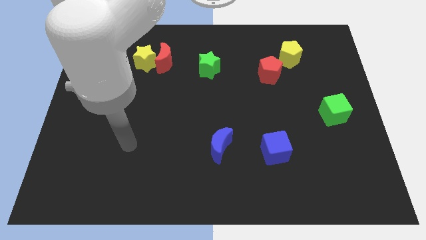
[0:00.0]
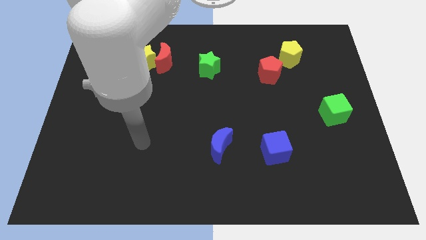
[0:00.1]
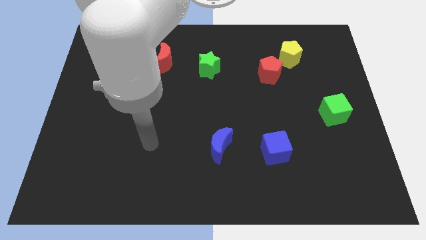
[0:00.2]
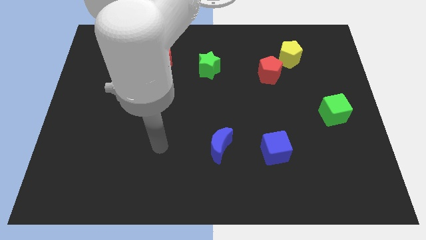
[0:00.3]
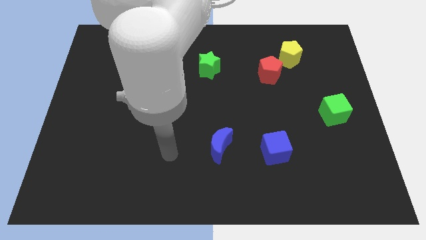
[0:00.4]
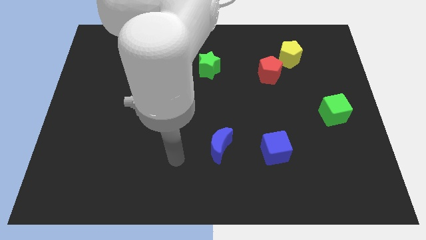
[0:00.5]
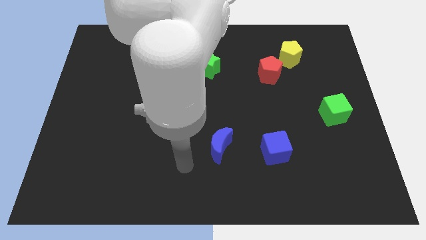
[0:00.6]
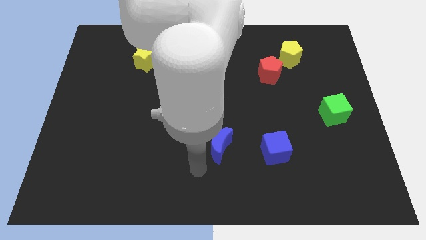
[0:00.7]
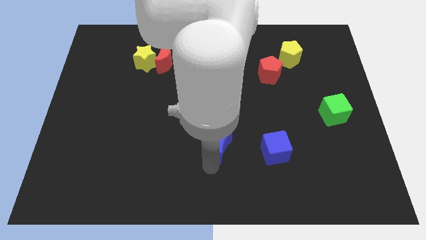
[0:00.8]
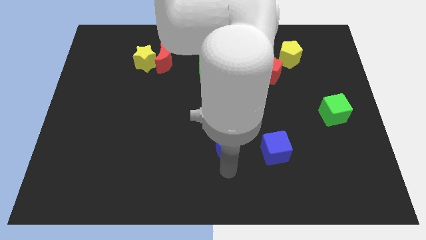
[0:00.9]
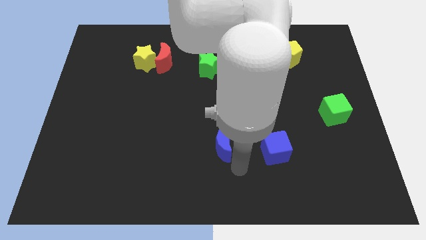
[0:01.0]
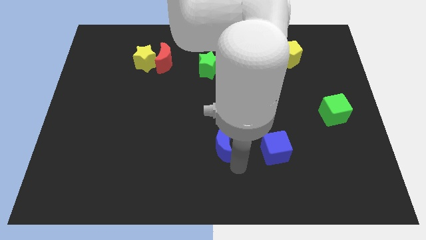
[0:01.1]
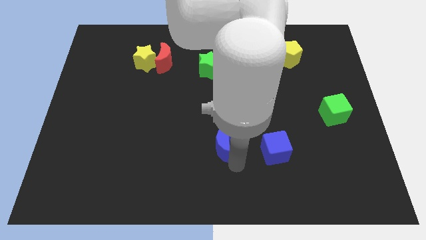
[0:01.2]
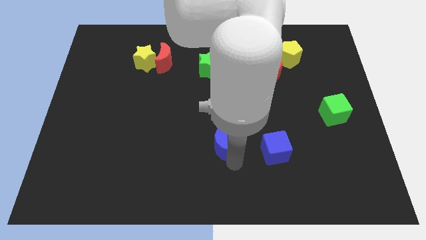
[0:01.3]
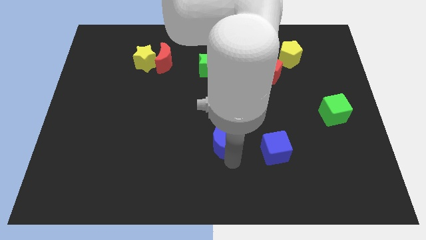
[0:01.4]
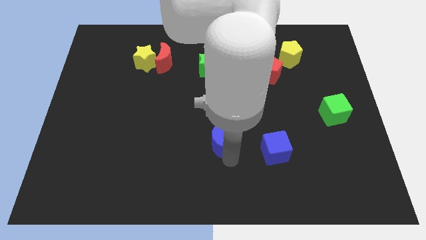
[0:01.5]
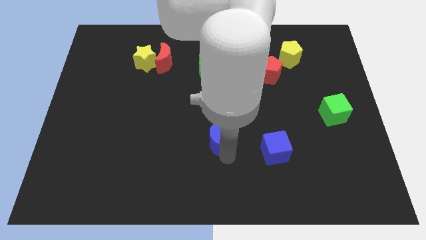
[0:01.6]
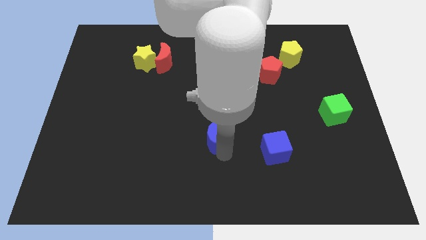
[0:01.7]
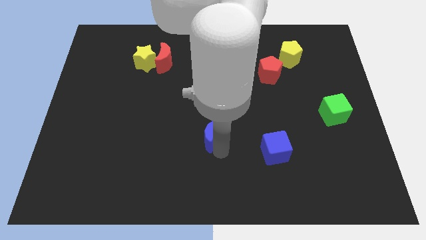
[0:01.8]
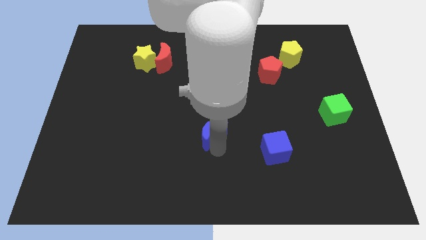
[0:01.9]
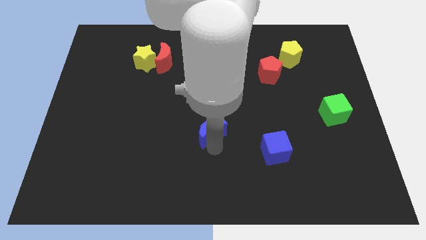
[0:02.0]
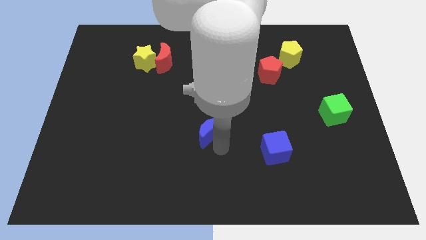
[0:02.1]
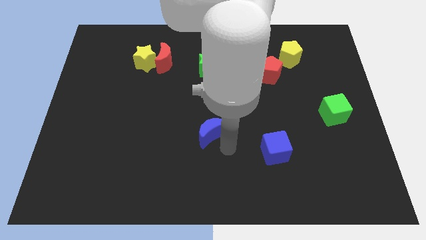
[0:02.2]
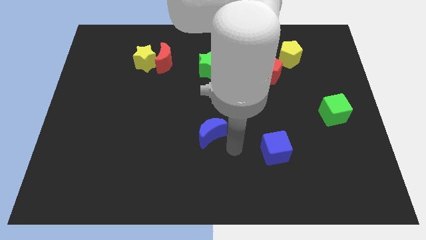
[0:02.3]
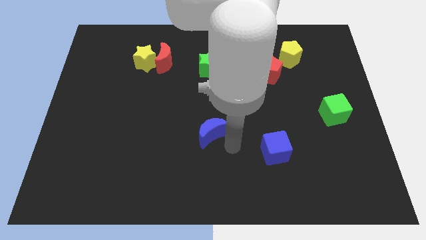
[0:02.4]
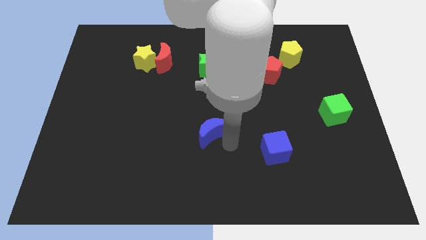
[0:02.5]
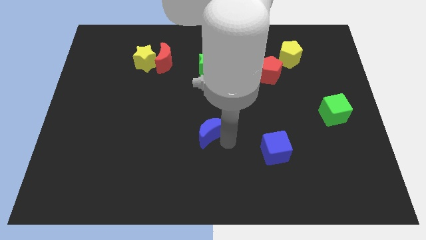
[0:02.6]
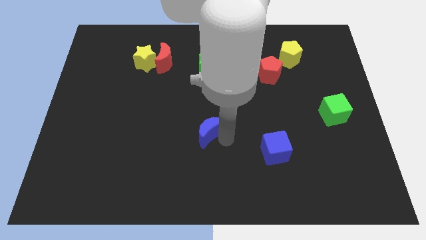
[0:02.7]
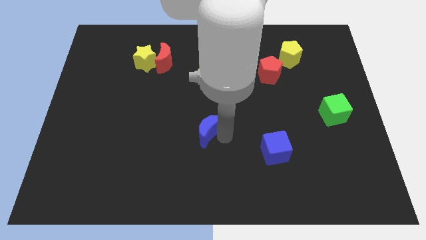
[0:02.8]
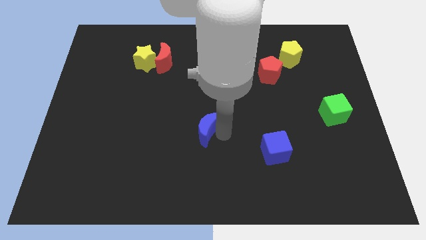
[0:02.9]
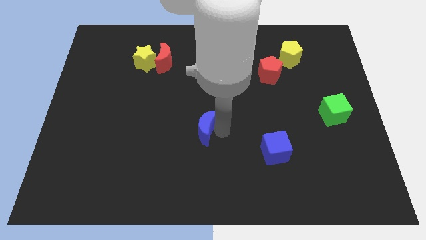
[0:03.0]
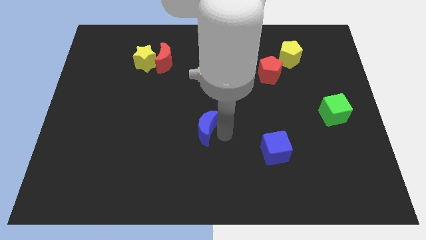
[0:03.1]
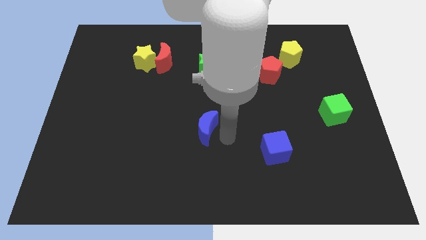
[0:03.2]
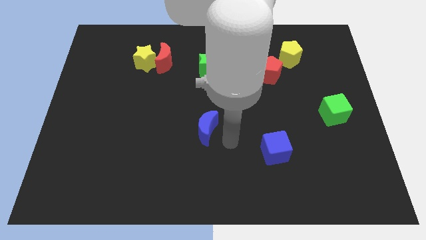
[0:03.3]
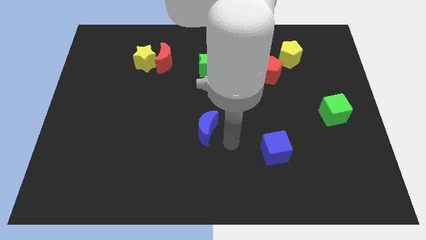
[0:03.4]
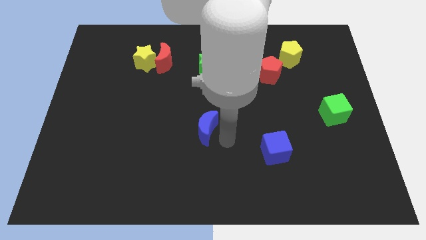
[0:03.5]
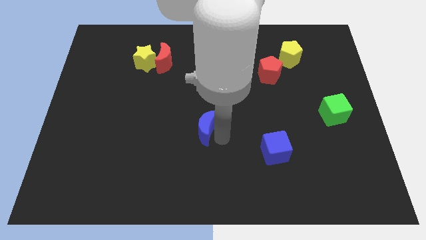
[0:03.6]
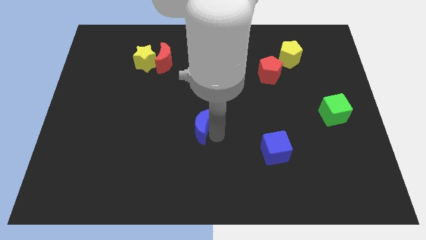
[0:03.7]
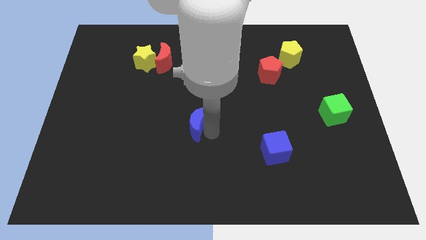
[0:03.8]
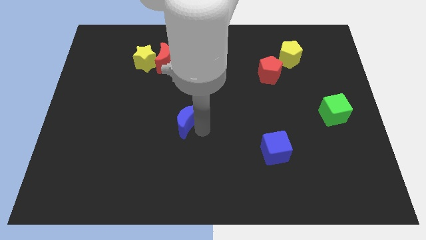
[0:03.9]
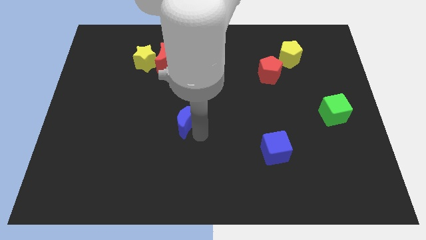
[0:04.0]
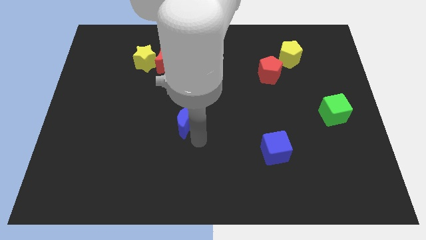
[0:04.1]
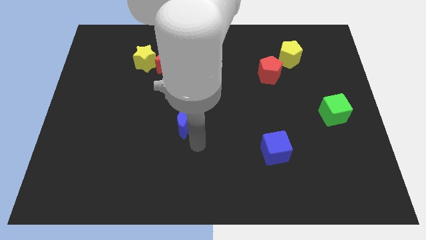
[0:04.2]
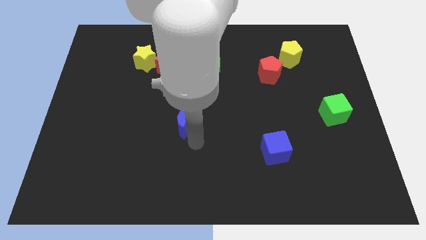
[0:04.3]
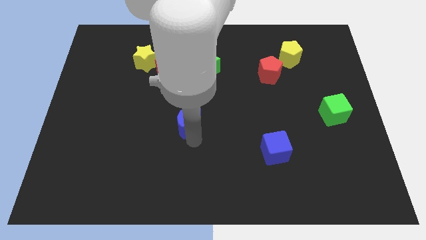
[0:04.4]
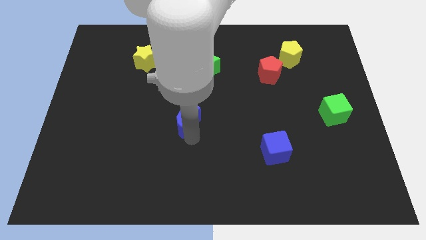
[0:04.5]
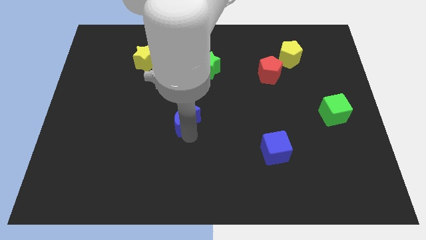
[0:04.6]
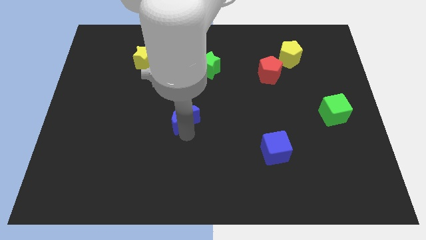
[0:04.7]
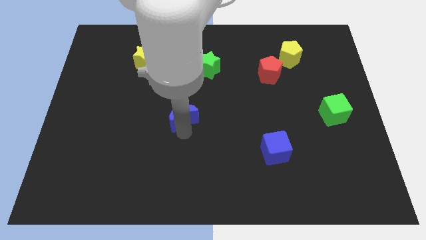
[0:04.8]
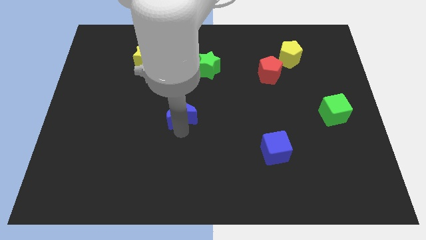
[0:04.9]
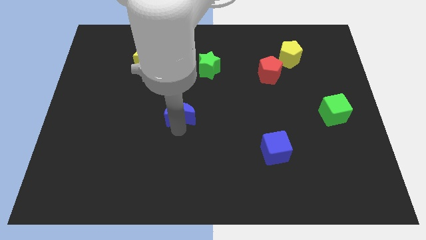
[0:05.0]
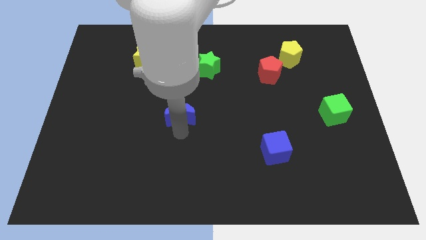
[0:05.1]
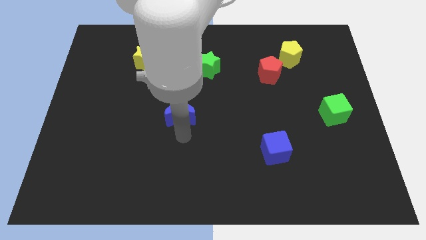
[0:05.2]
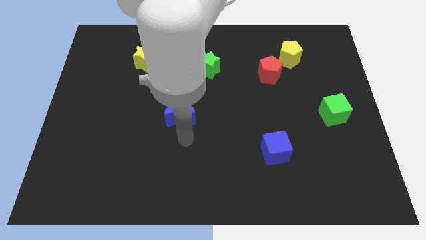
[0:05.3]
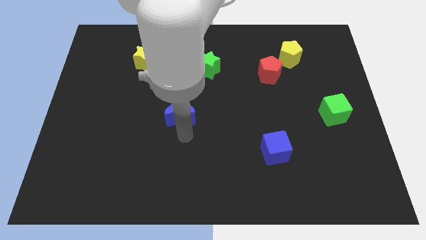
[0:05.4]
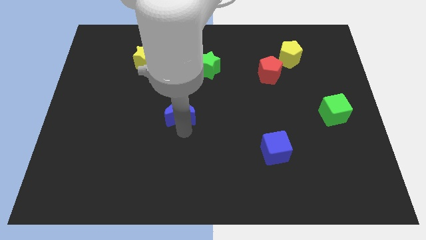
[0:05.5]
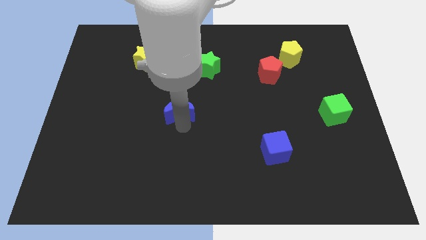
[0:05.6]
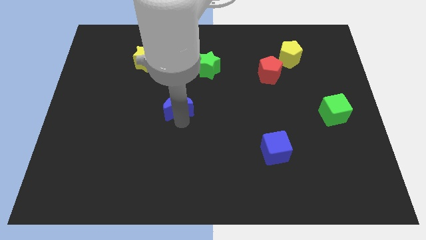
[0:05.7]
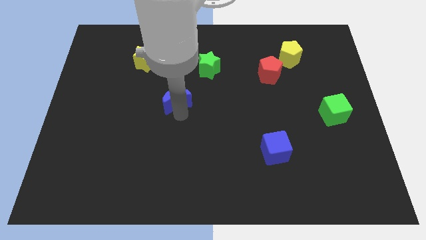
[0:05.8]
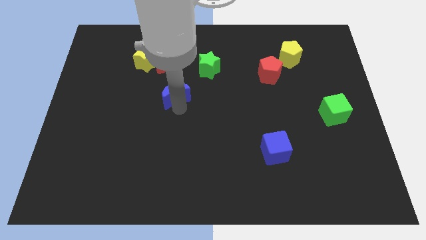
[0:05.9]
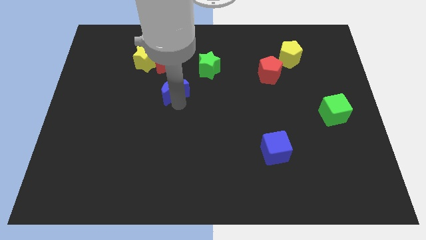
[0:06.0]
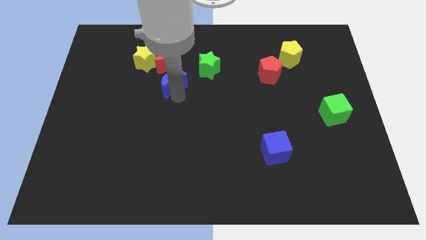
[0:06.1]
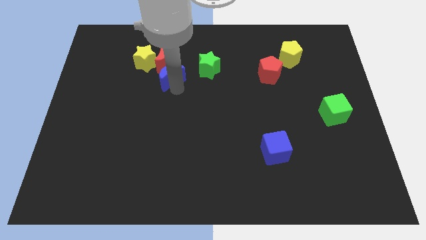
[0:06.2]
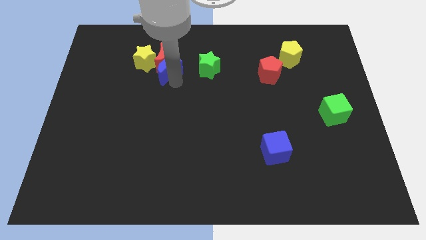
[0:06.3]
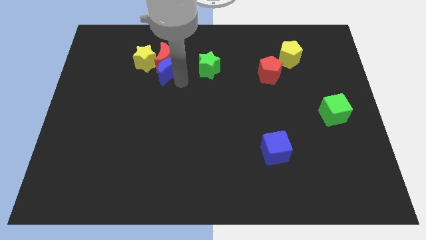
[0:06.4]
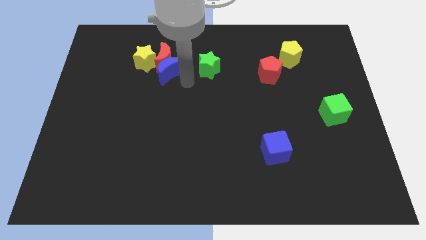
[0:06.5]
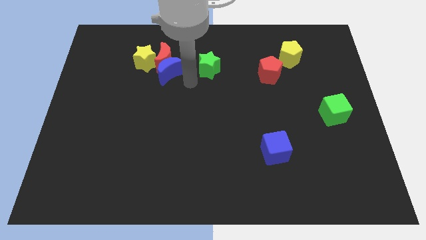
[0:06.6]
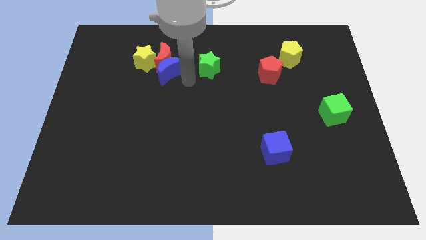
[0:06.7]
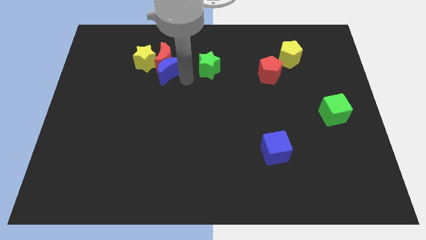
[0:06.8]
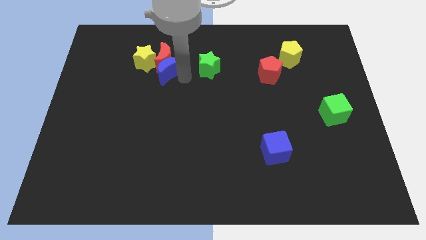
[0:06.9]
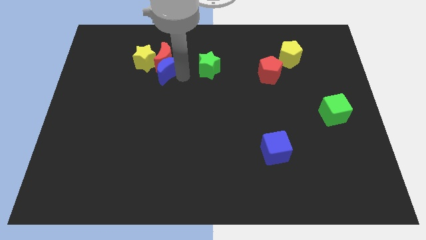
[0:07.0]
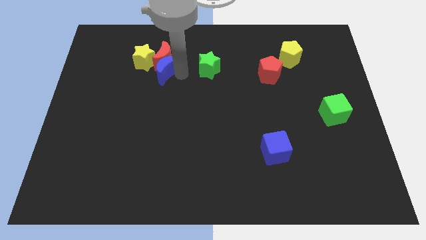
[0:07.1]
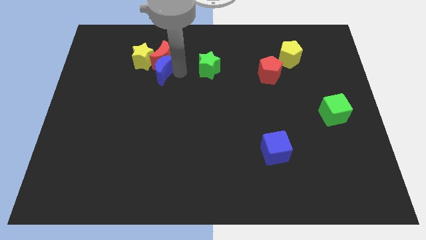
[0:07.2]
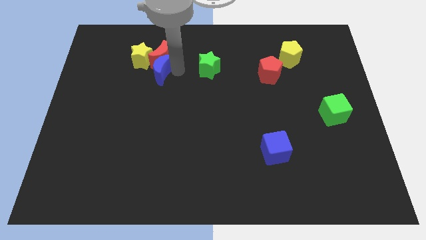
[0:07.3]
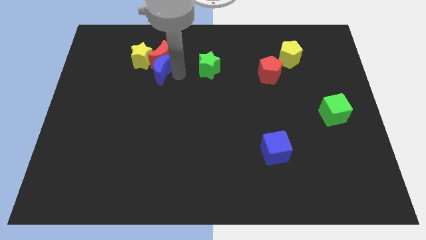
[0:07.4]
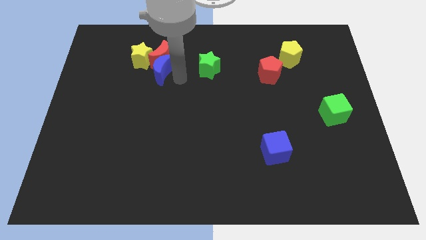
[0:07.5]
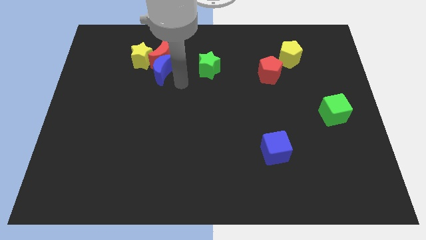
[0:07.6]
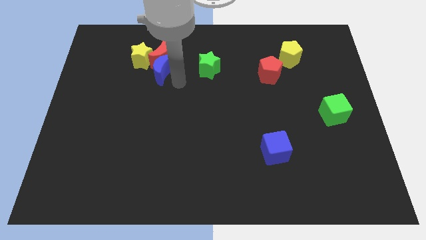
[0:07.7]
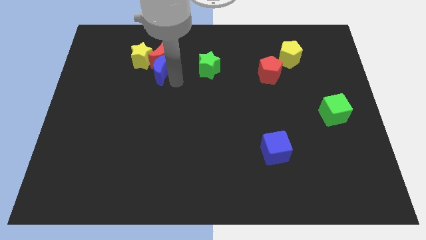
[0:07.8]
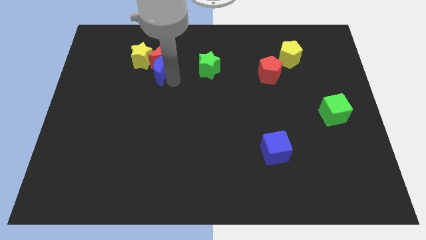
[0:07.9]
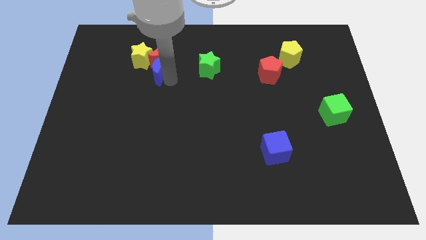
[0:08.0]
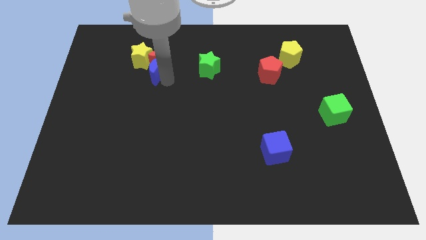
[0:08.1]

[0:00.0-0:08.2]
push the blue moon to the yellow star
